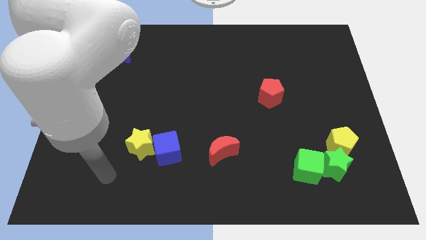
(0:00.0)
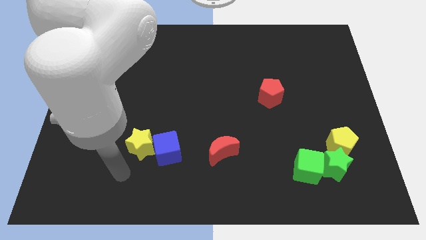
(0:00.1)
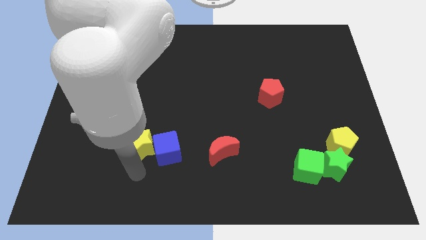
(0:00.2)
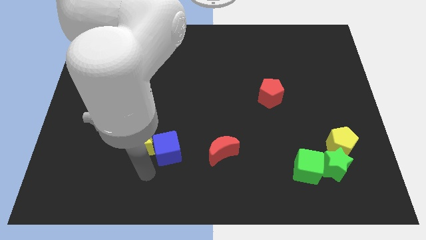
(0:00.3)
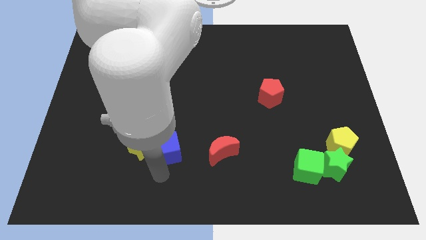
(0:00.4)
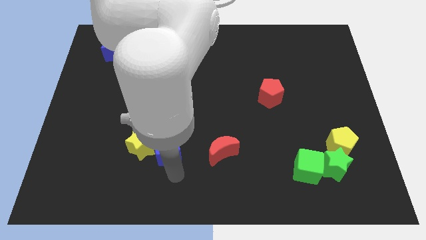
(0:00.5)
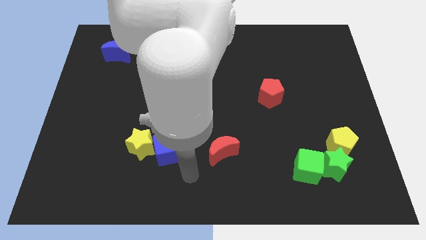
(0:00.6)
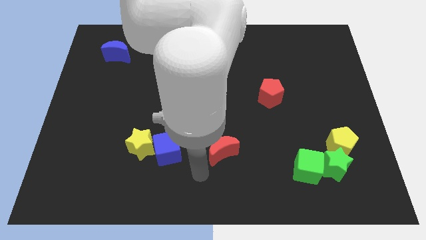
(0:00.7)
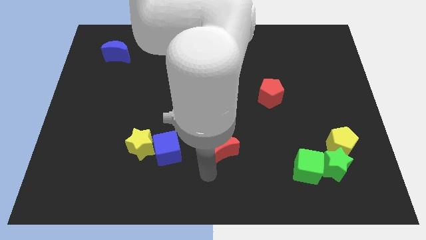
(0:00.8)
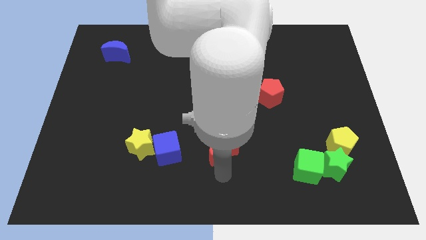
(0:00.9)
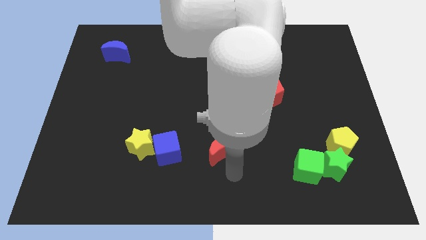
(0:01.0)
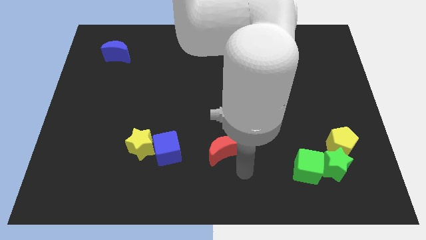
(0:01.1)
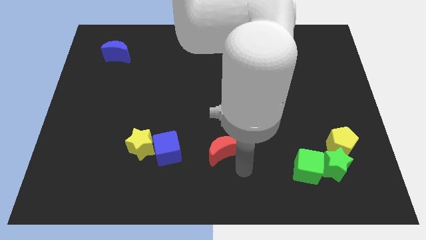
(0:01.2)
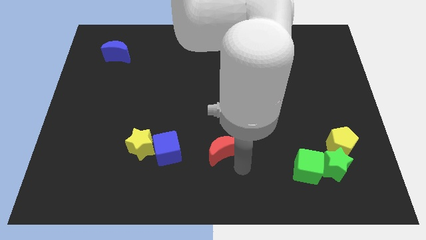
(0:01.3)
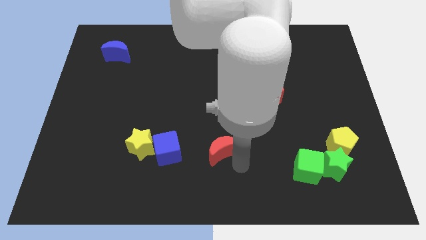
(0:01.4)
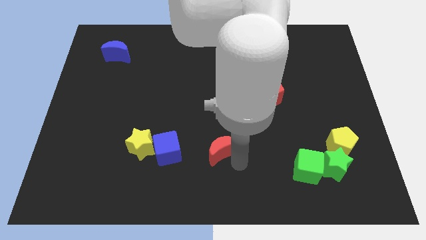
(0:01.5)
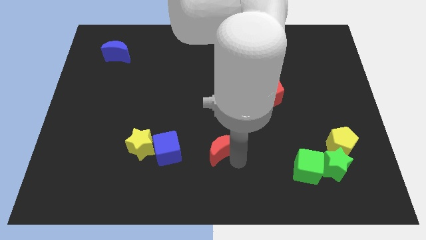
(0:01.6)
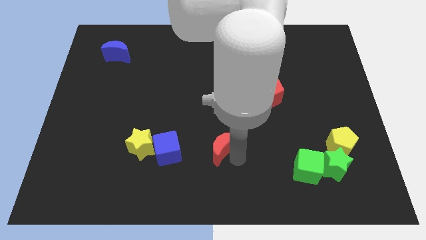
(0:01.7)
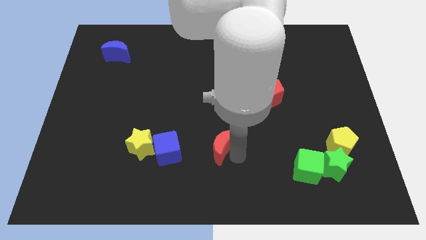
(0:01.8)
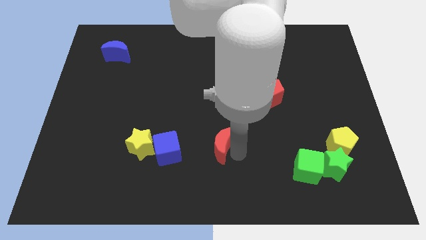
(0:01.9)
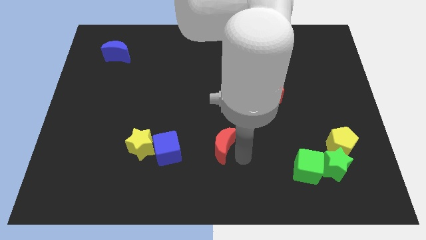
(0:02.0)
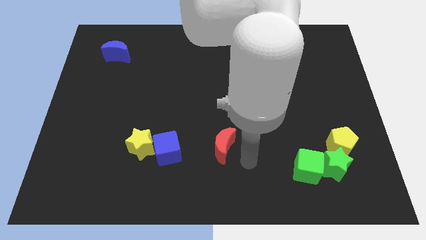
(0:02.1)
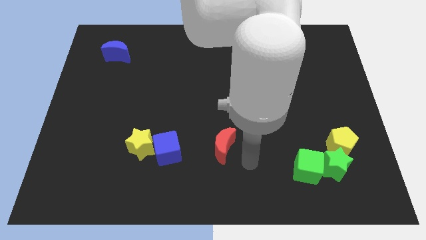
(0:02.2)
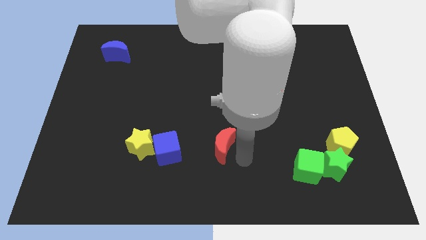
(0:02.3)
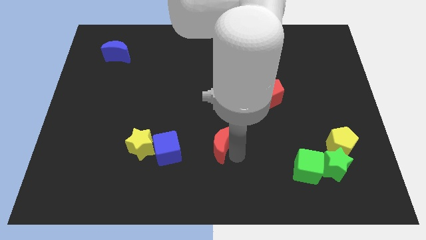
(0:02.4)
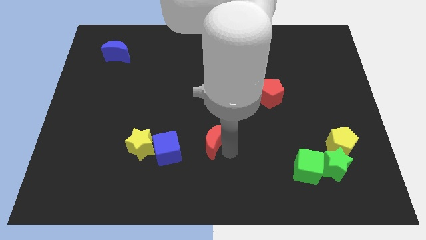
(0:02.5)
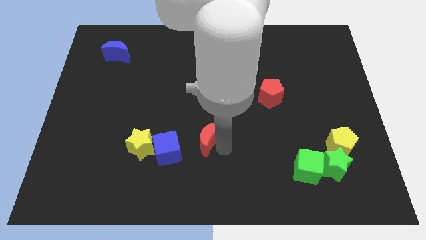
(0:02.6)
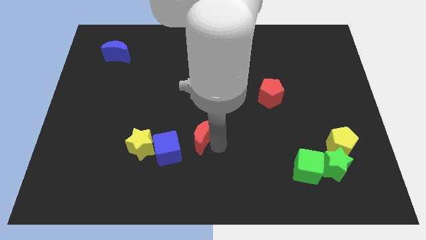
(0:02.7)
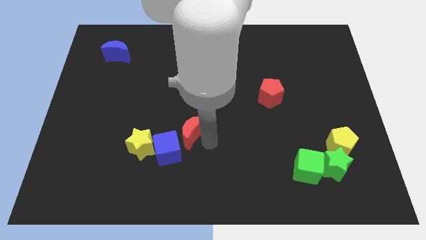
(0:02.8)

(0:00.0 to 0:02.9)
slide the red moon slightly upwards and left

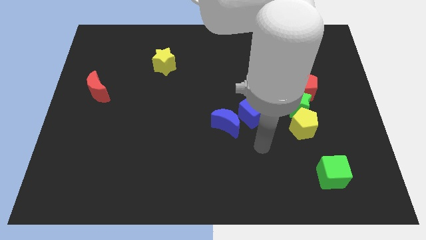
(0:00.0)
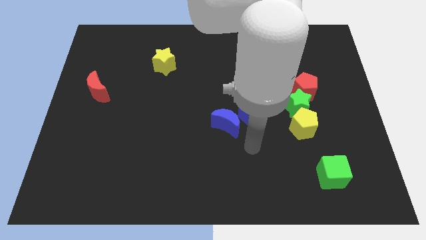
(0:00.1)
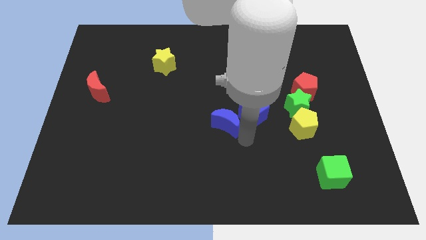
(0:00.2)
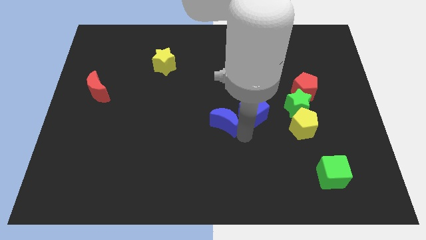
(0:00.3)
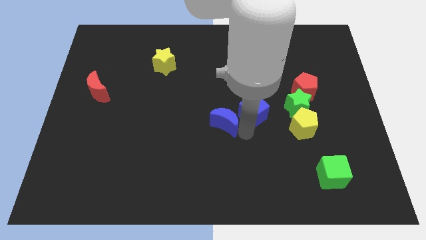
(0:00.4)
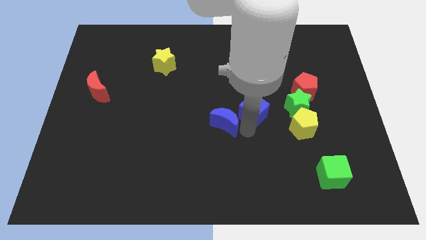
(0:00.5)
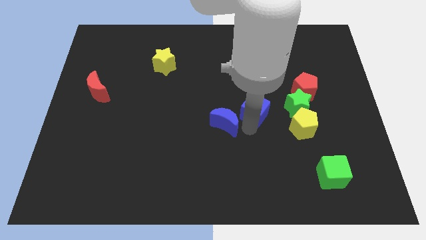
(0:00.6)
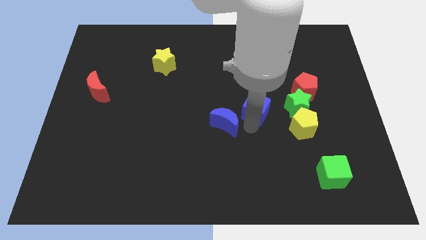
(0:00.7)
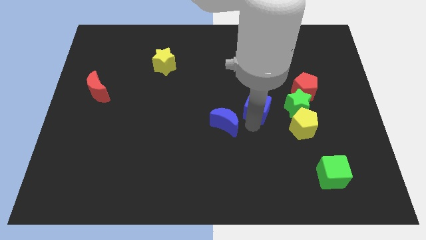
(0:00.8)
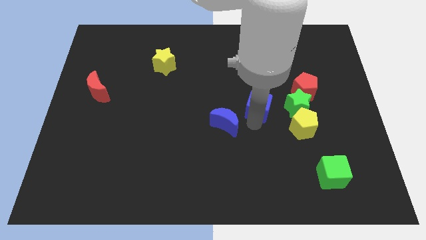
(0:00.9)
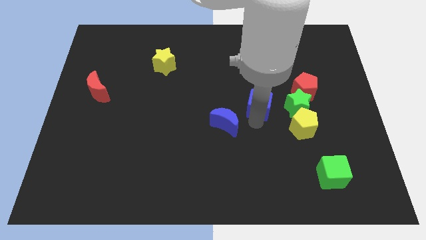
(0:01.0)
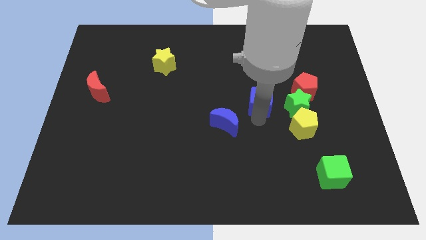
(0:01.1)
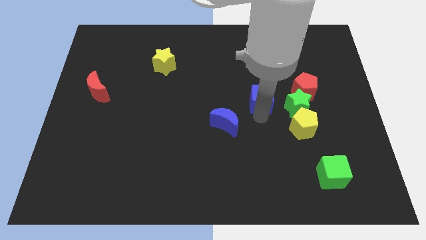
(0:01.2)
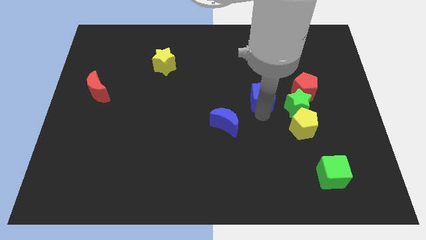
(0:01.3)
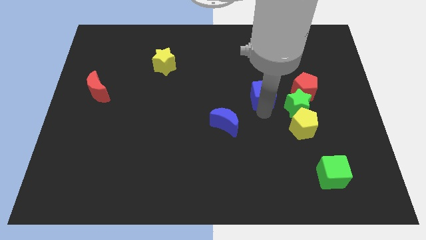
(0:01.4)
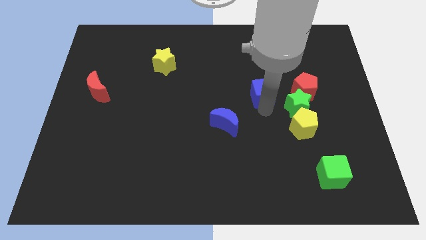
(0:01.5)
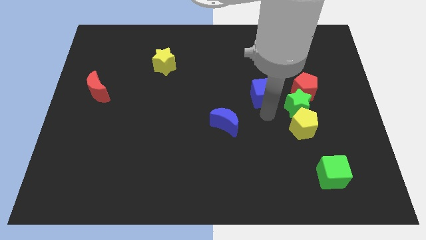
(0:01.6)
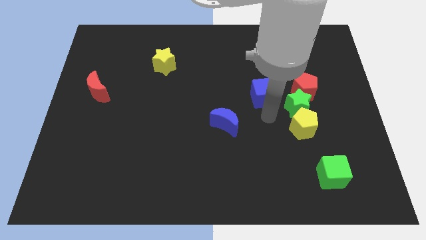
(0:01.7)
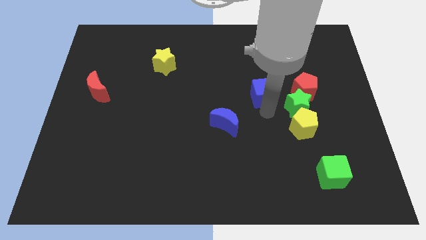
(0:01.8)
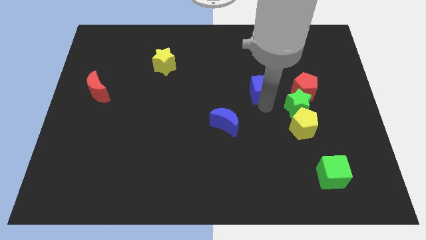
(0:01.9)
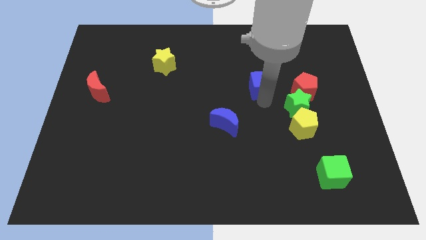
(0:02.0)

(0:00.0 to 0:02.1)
push the blue cube a bit upwards

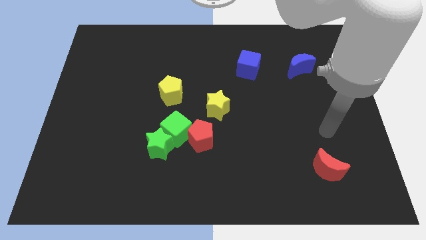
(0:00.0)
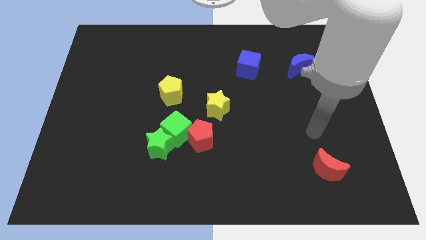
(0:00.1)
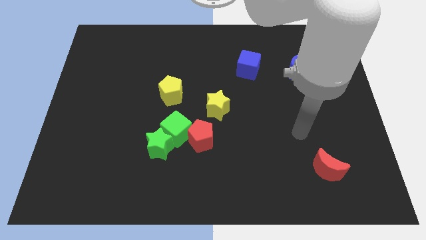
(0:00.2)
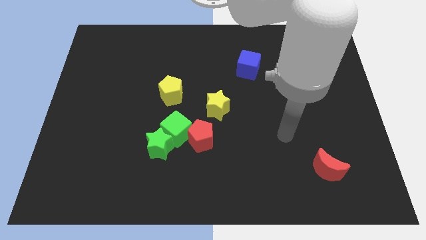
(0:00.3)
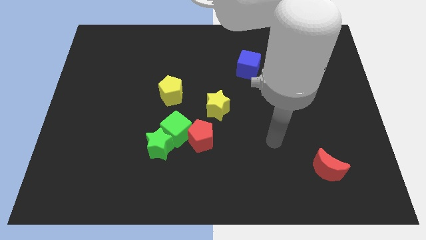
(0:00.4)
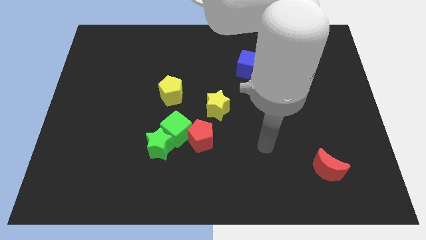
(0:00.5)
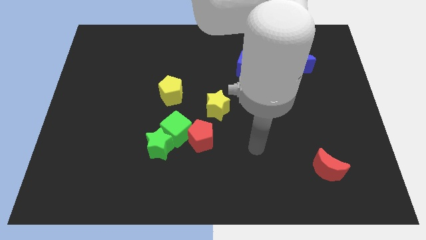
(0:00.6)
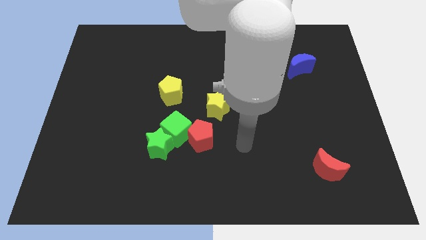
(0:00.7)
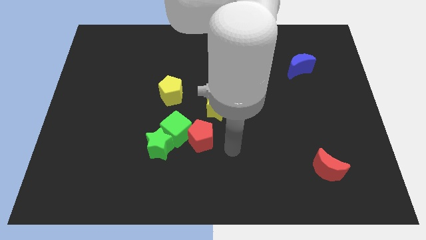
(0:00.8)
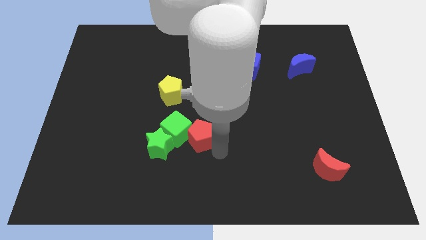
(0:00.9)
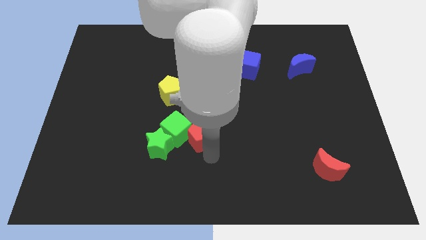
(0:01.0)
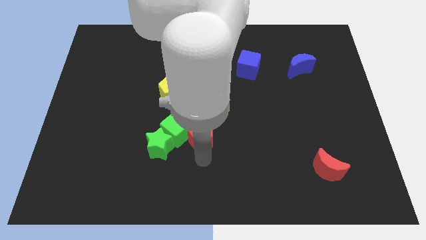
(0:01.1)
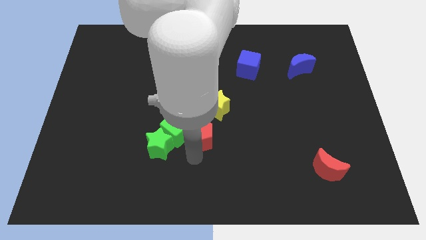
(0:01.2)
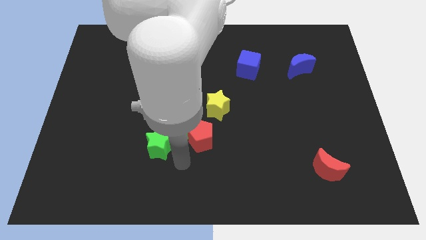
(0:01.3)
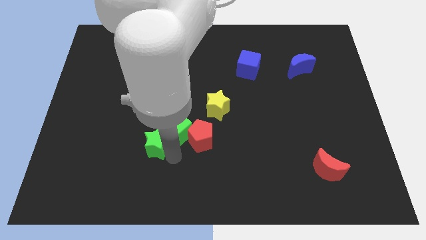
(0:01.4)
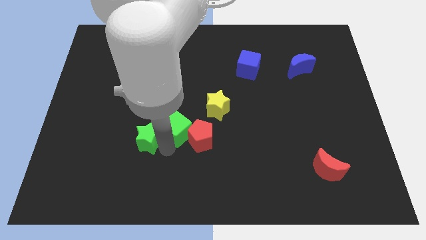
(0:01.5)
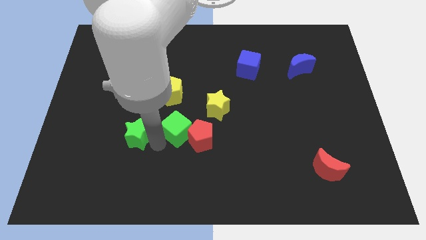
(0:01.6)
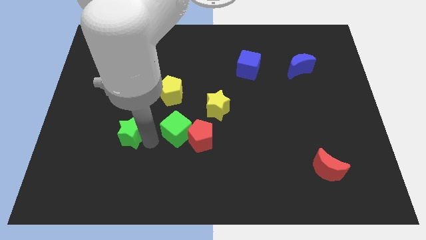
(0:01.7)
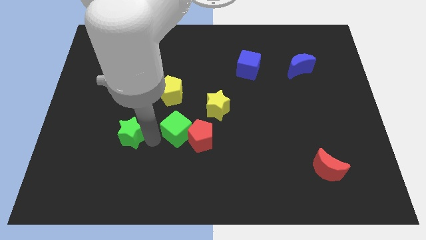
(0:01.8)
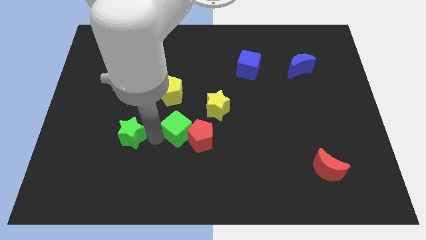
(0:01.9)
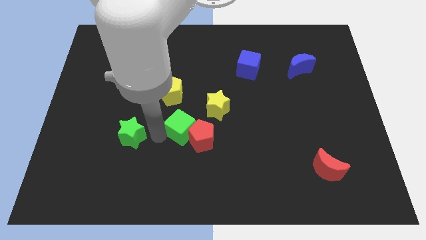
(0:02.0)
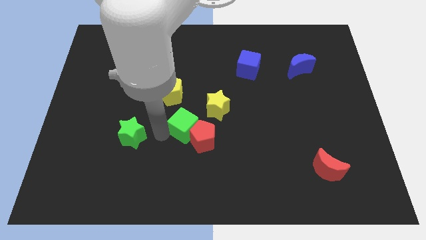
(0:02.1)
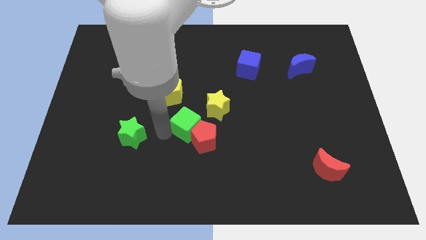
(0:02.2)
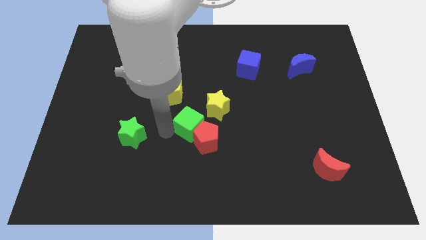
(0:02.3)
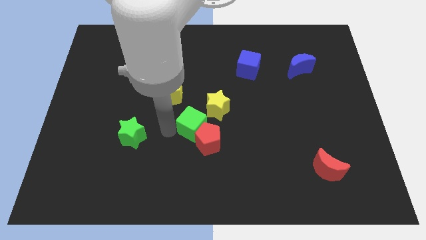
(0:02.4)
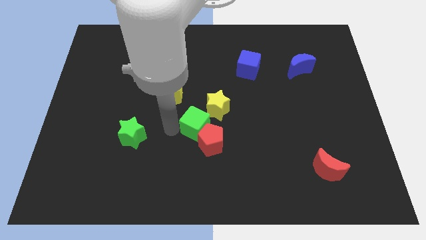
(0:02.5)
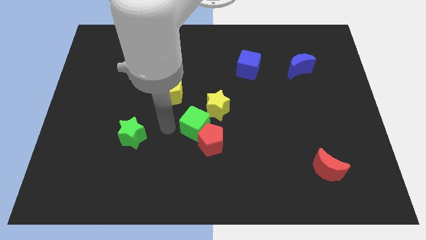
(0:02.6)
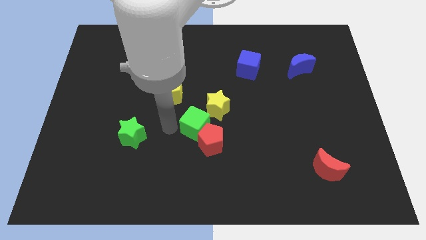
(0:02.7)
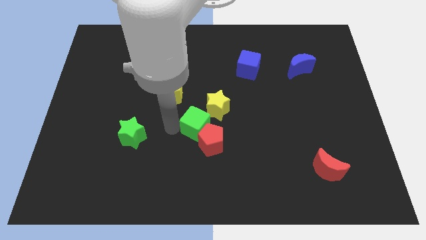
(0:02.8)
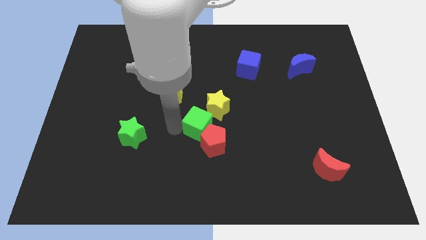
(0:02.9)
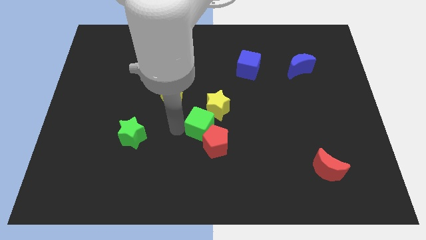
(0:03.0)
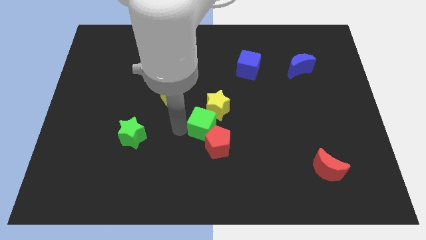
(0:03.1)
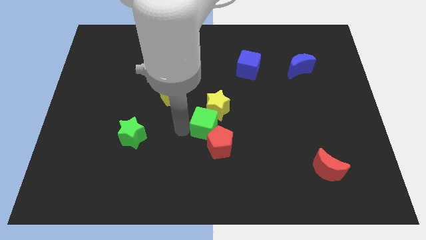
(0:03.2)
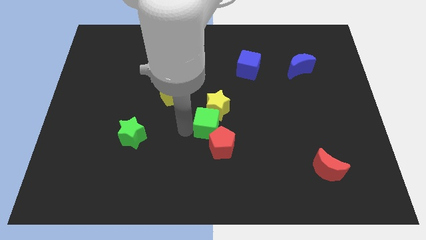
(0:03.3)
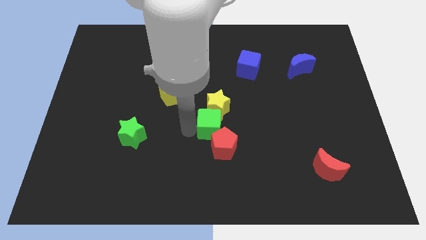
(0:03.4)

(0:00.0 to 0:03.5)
move the green cube slightly right
